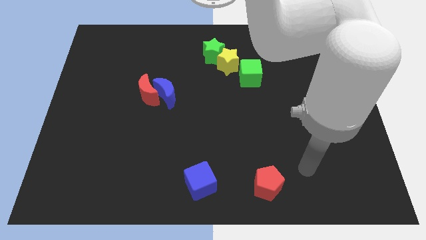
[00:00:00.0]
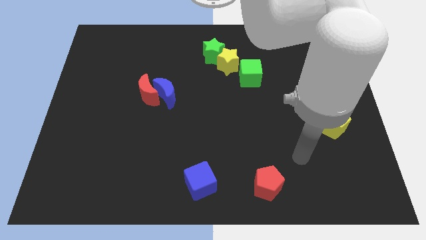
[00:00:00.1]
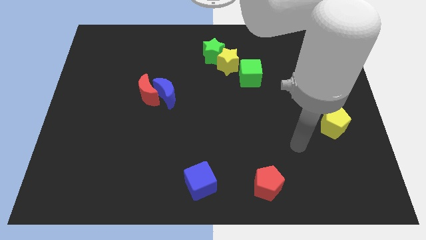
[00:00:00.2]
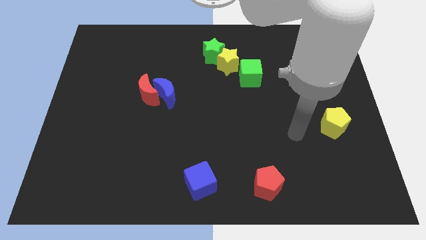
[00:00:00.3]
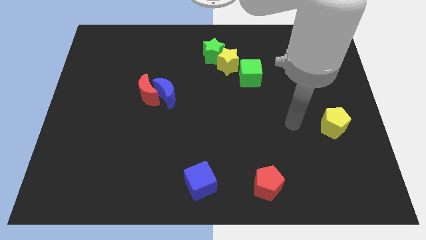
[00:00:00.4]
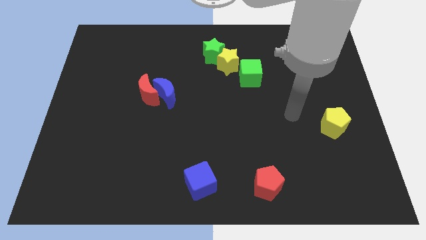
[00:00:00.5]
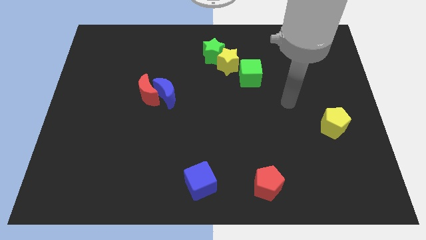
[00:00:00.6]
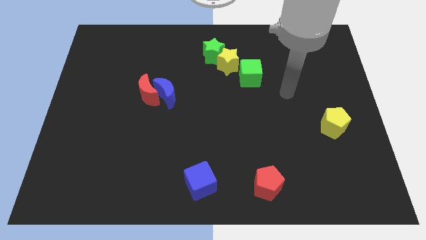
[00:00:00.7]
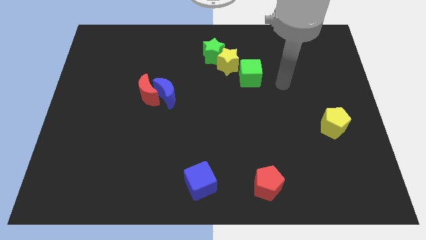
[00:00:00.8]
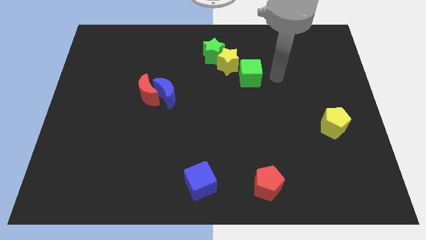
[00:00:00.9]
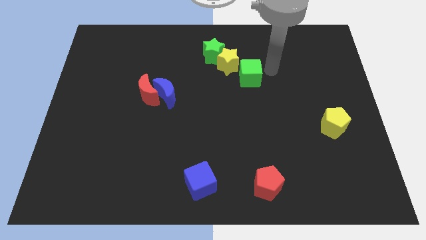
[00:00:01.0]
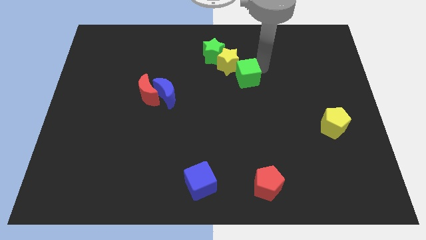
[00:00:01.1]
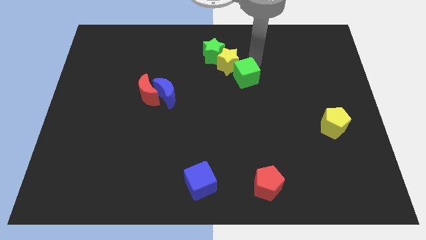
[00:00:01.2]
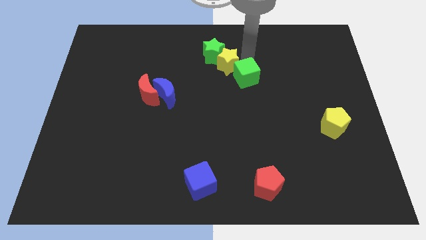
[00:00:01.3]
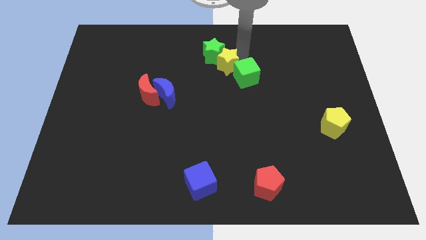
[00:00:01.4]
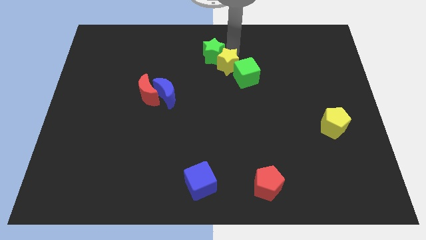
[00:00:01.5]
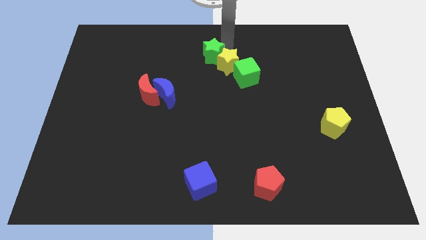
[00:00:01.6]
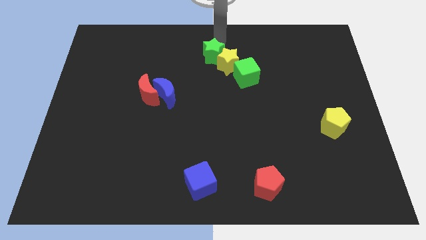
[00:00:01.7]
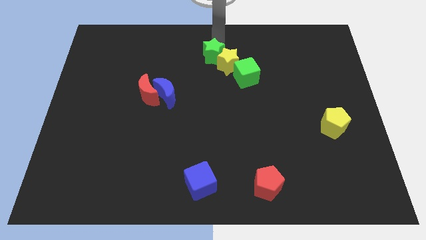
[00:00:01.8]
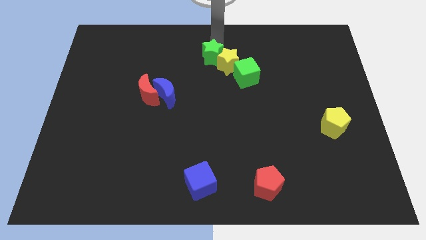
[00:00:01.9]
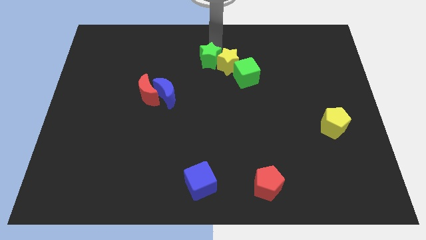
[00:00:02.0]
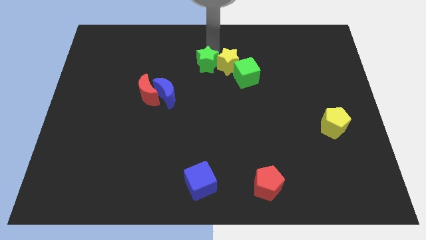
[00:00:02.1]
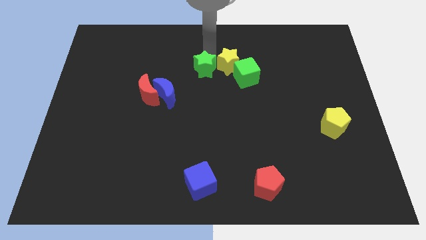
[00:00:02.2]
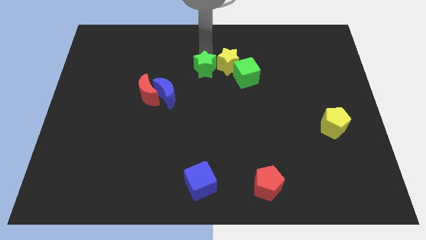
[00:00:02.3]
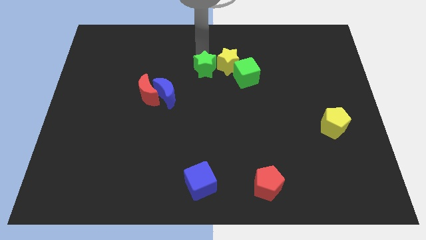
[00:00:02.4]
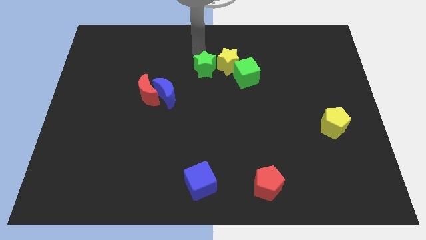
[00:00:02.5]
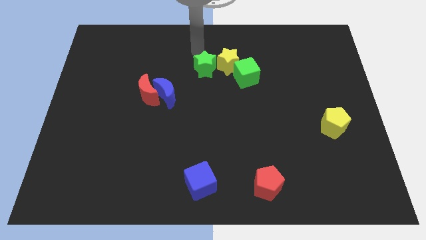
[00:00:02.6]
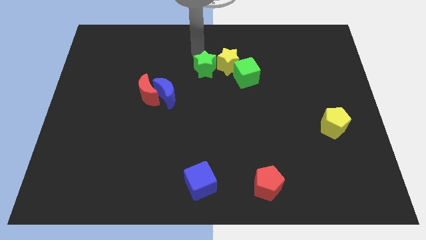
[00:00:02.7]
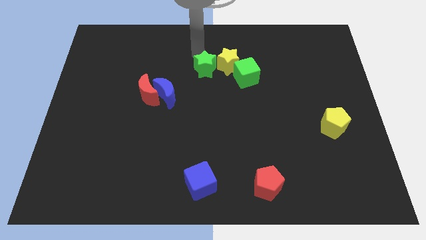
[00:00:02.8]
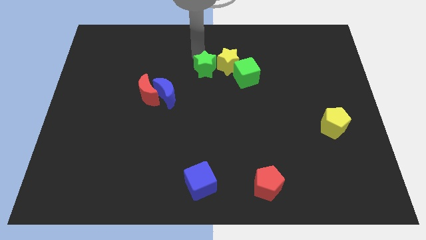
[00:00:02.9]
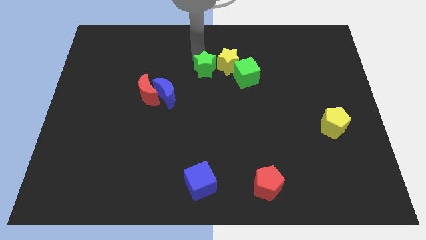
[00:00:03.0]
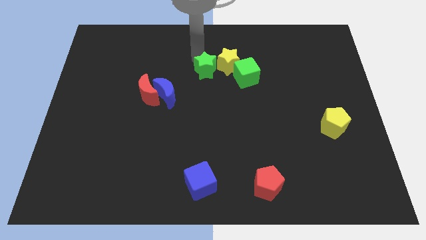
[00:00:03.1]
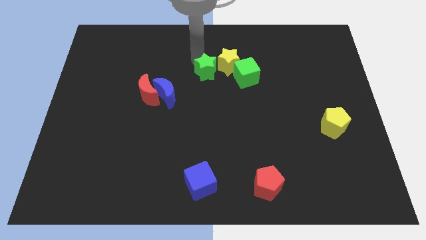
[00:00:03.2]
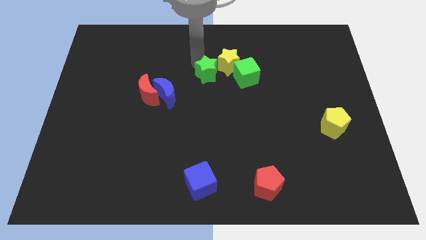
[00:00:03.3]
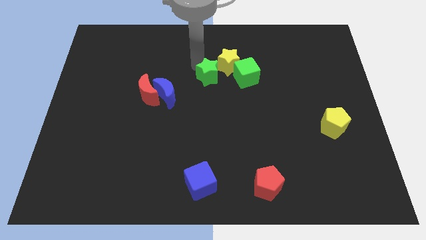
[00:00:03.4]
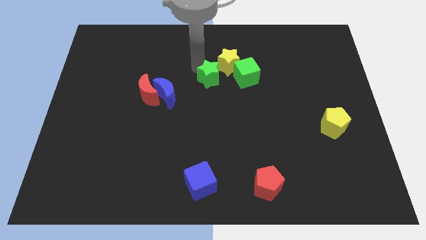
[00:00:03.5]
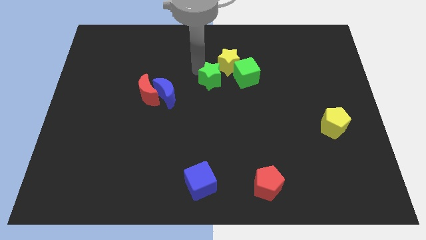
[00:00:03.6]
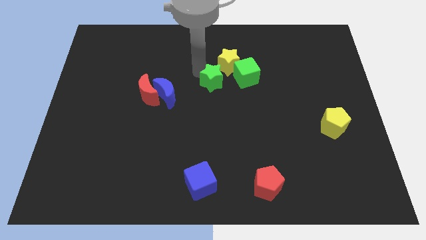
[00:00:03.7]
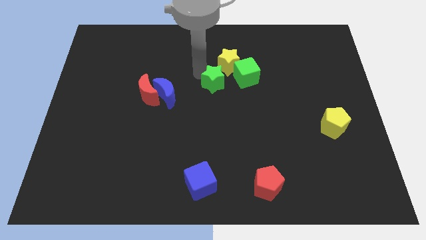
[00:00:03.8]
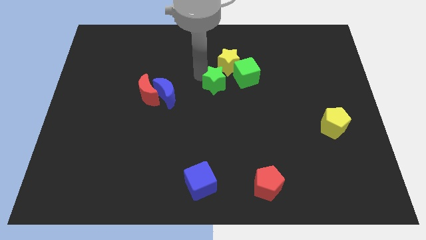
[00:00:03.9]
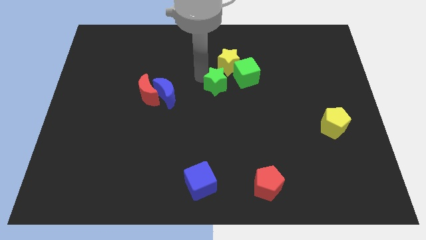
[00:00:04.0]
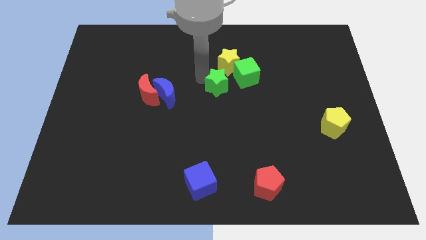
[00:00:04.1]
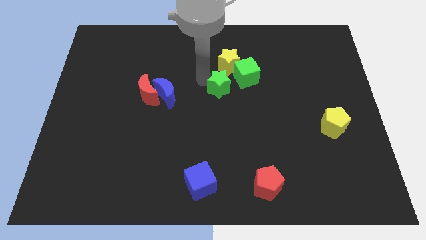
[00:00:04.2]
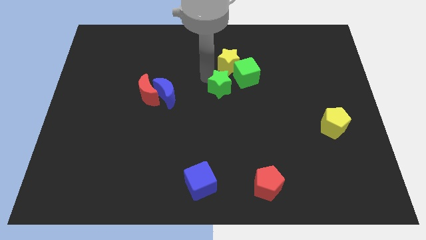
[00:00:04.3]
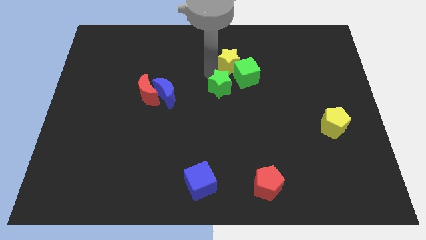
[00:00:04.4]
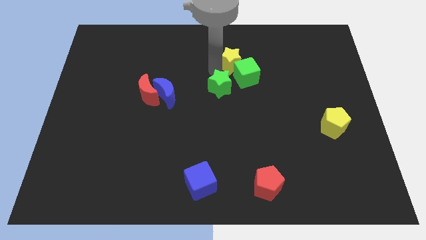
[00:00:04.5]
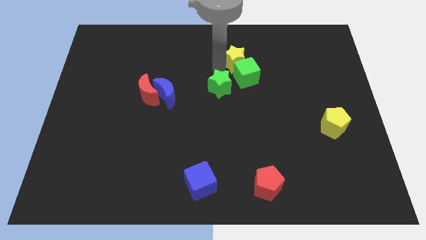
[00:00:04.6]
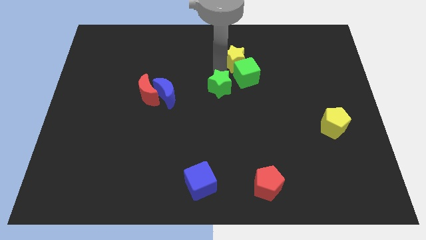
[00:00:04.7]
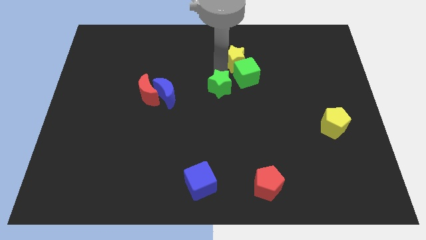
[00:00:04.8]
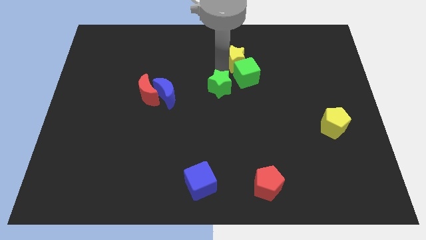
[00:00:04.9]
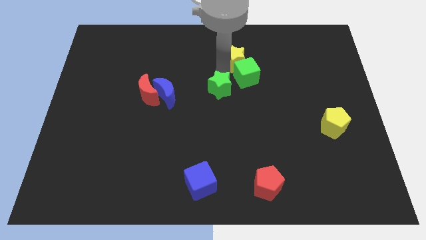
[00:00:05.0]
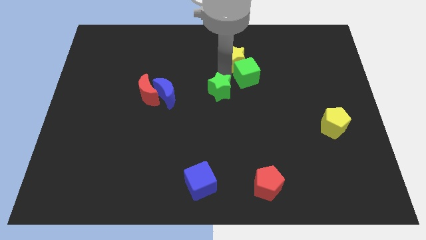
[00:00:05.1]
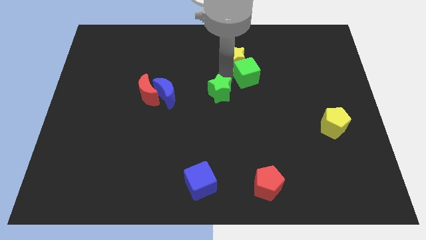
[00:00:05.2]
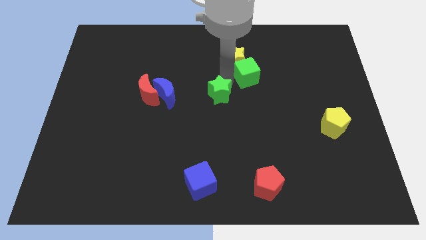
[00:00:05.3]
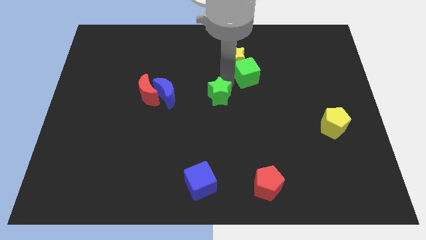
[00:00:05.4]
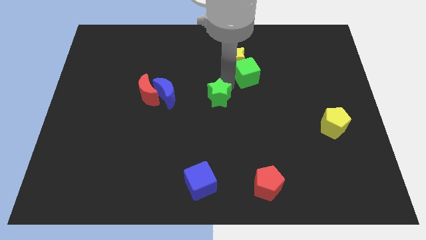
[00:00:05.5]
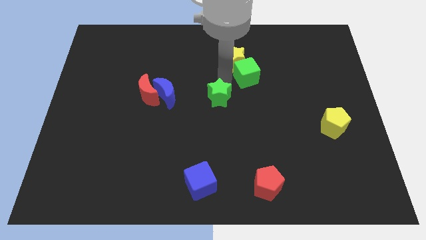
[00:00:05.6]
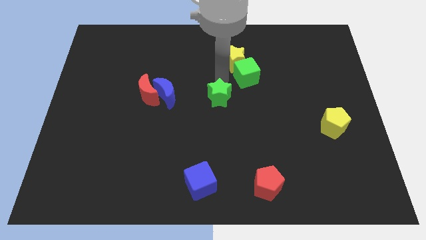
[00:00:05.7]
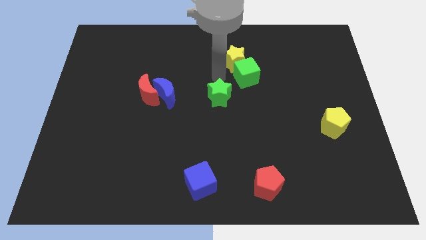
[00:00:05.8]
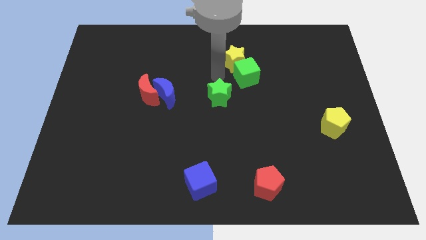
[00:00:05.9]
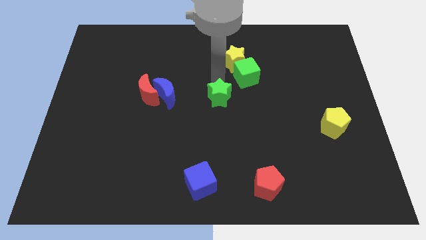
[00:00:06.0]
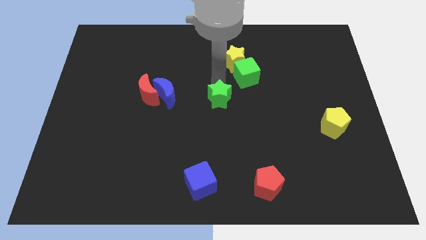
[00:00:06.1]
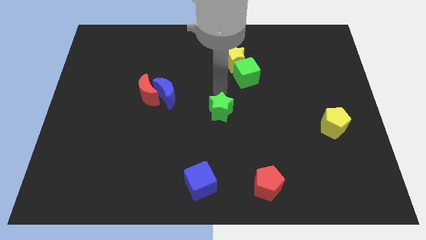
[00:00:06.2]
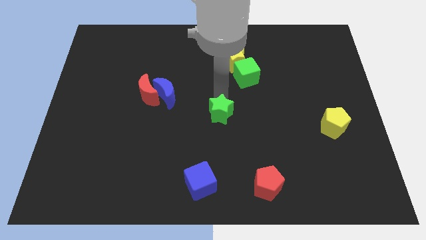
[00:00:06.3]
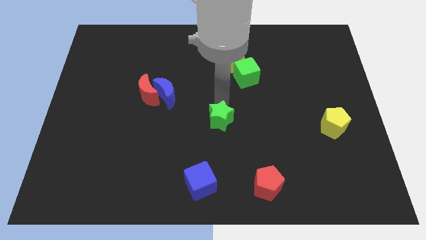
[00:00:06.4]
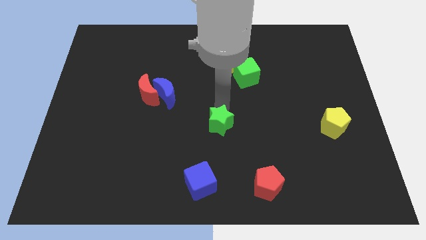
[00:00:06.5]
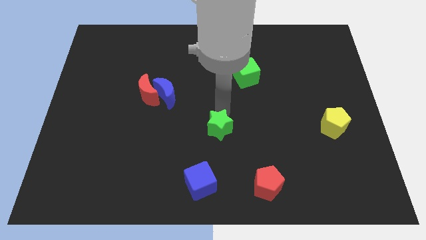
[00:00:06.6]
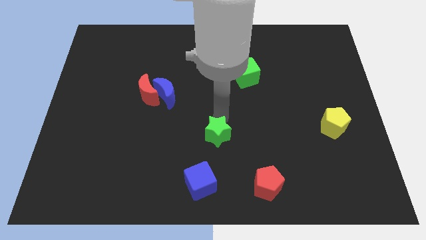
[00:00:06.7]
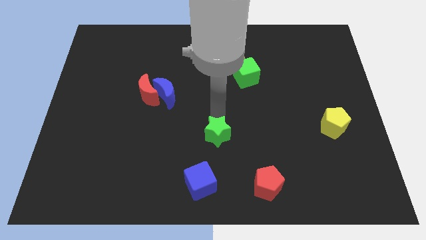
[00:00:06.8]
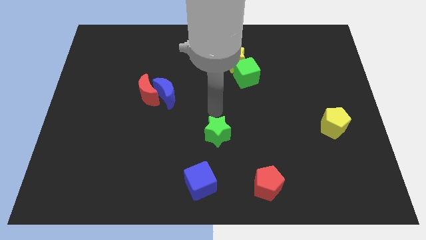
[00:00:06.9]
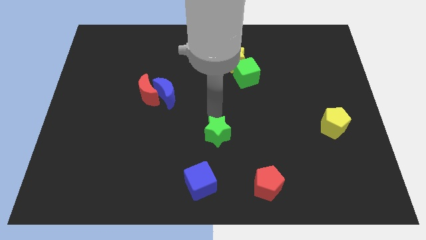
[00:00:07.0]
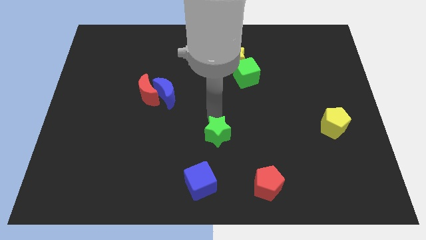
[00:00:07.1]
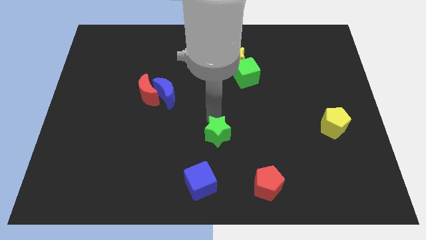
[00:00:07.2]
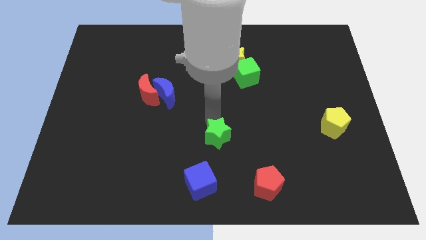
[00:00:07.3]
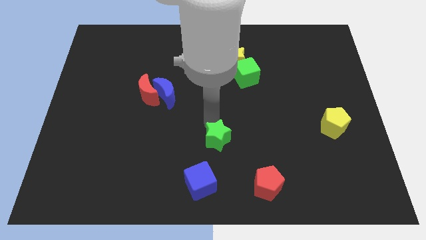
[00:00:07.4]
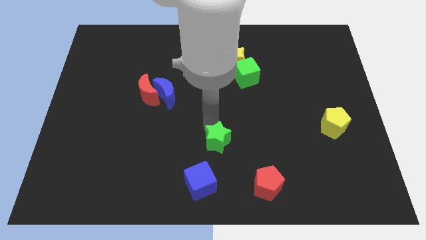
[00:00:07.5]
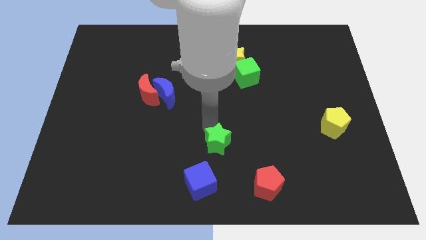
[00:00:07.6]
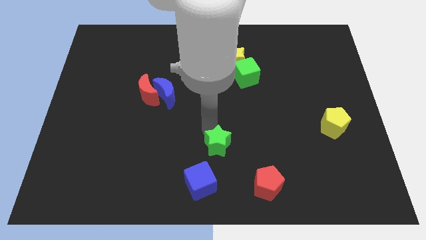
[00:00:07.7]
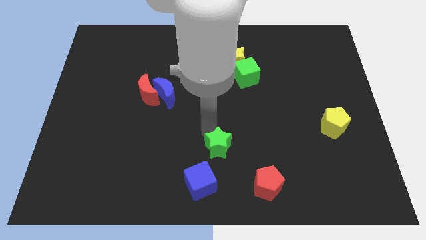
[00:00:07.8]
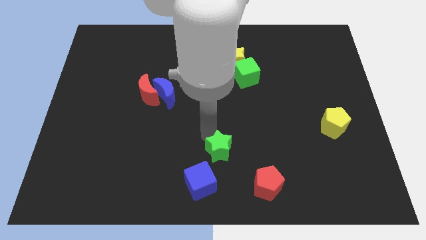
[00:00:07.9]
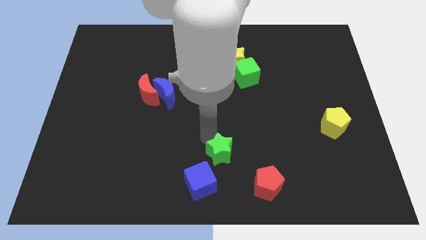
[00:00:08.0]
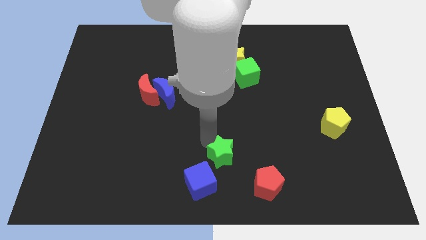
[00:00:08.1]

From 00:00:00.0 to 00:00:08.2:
put the green star to the bottom side
